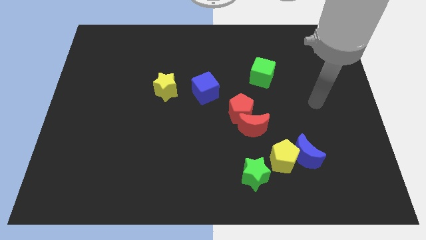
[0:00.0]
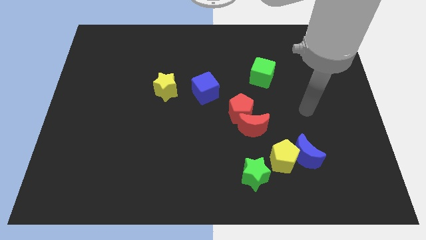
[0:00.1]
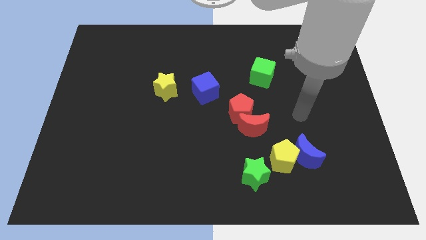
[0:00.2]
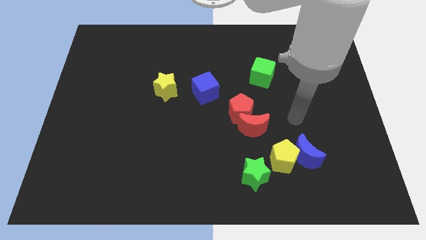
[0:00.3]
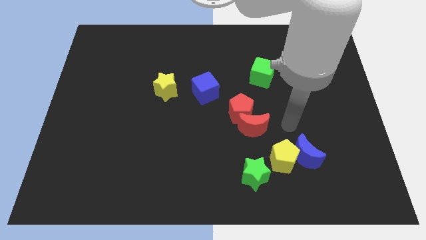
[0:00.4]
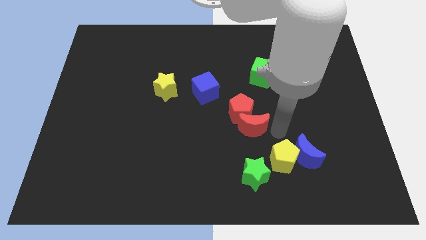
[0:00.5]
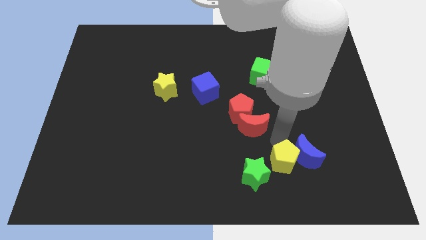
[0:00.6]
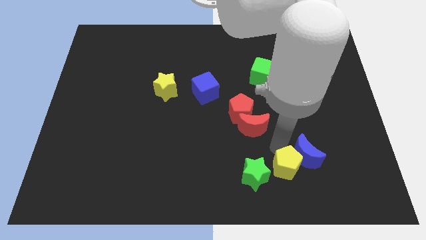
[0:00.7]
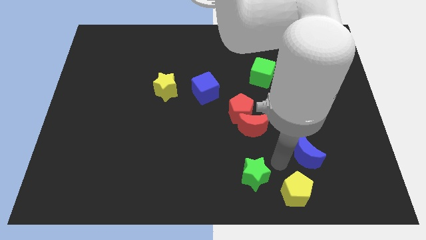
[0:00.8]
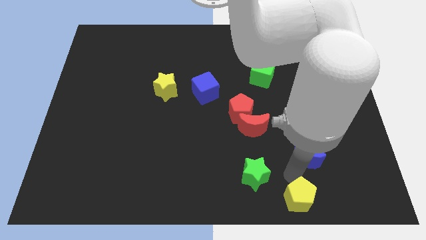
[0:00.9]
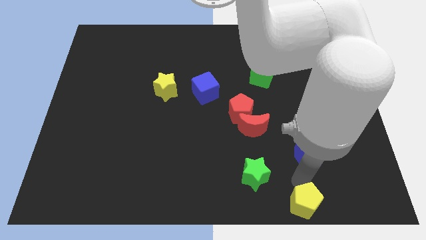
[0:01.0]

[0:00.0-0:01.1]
move the blue moon away from the yellow pentagon

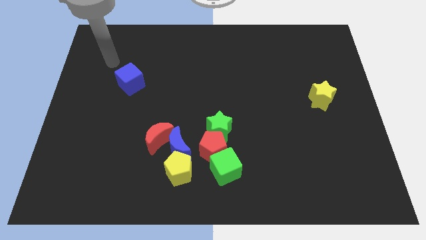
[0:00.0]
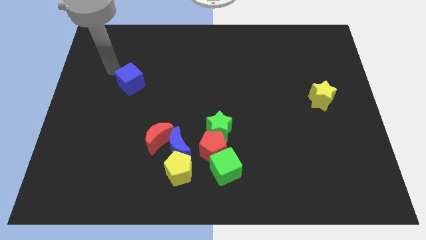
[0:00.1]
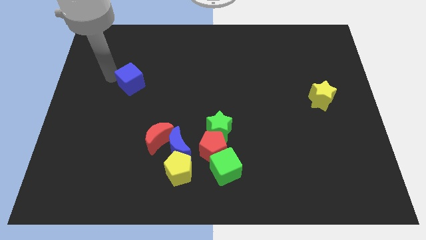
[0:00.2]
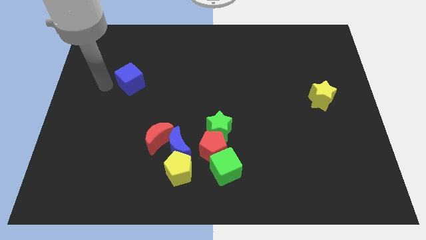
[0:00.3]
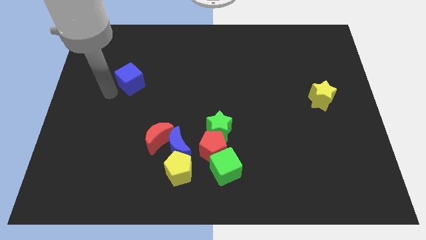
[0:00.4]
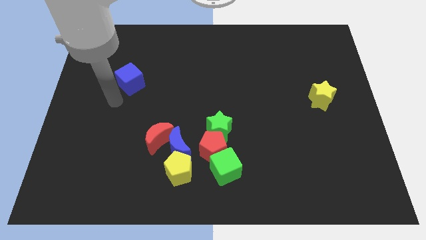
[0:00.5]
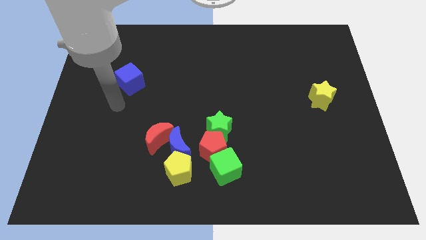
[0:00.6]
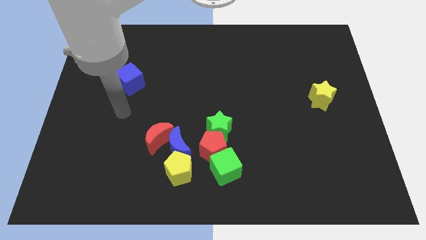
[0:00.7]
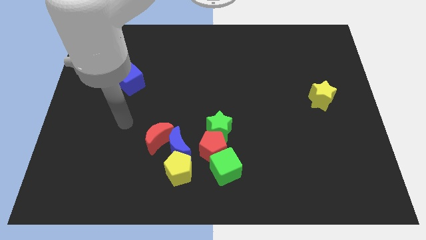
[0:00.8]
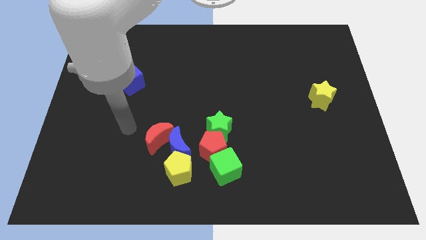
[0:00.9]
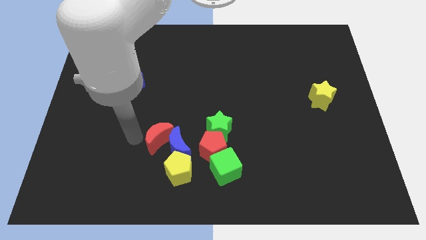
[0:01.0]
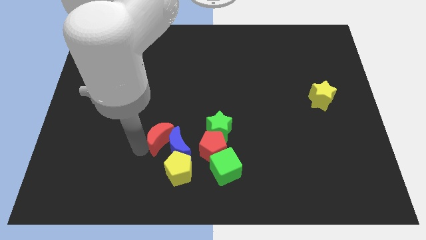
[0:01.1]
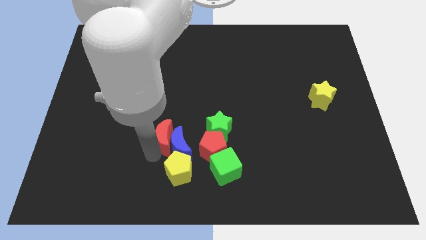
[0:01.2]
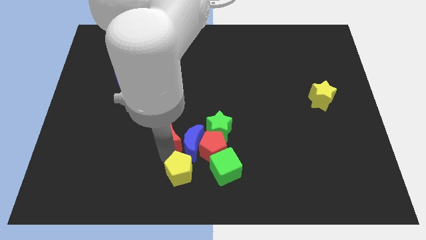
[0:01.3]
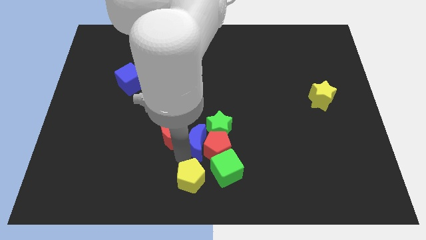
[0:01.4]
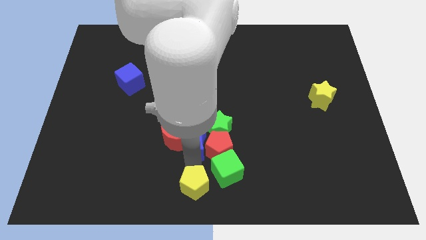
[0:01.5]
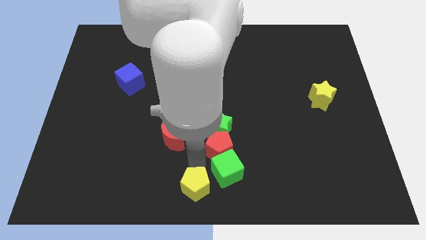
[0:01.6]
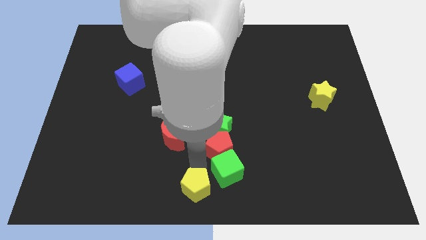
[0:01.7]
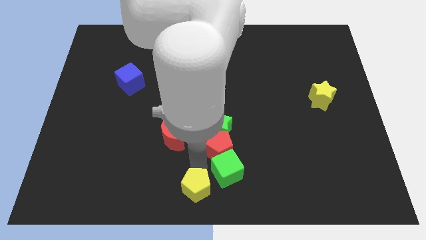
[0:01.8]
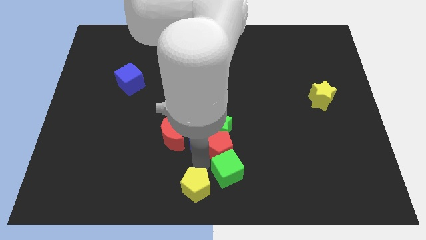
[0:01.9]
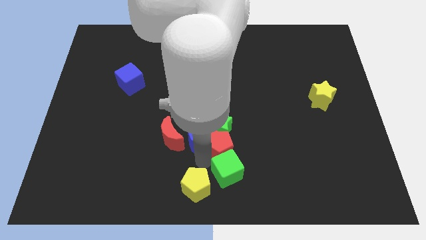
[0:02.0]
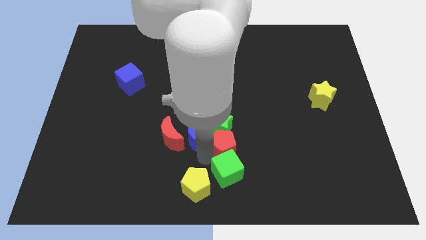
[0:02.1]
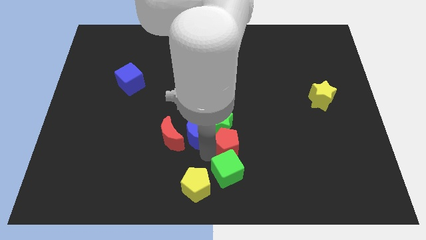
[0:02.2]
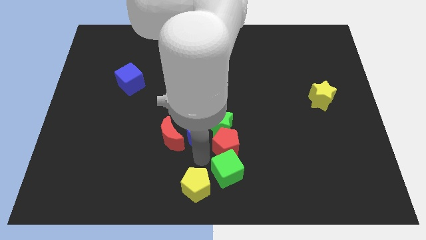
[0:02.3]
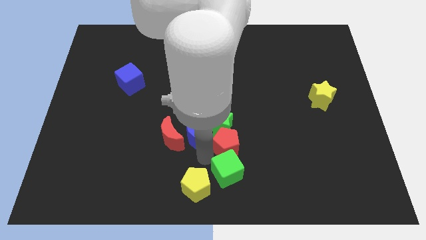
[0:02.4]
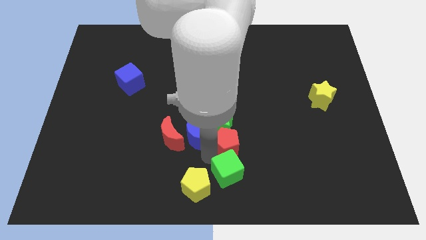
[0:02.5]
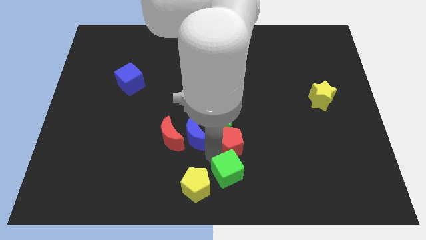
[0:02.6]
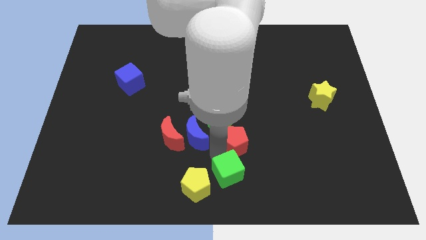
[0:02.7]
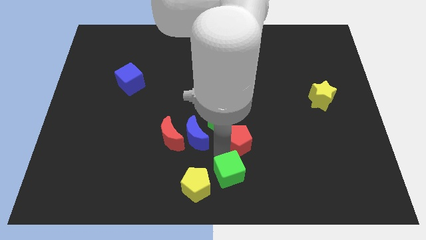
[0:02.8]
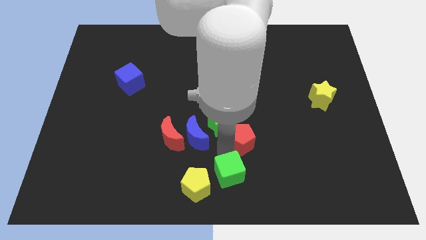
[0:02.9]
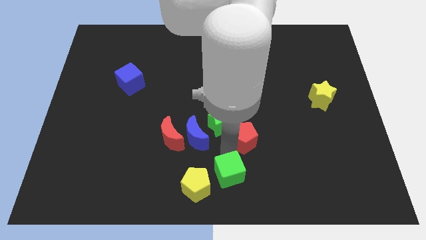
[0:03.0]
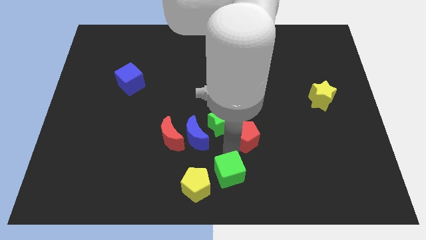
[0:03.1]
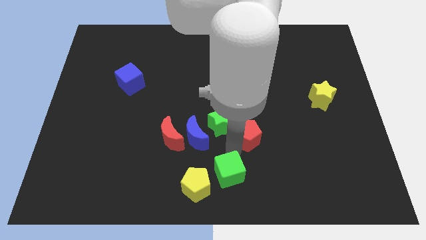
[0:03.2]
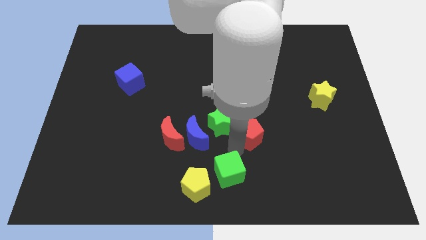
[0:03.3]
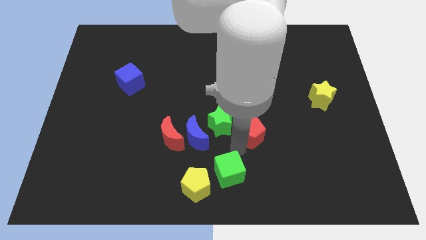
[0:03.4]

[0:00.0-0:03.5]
move the red pentagon away from the group of blocks

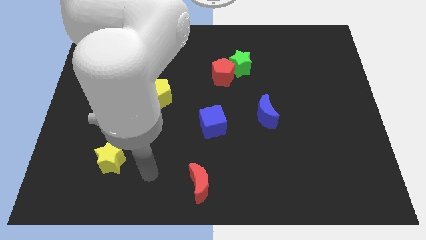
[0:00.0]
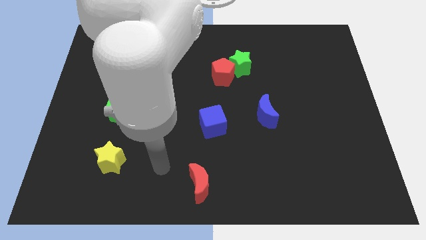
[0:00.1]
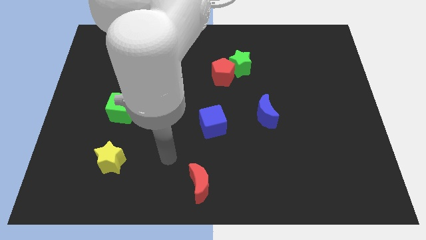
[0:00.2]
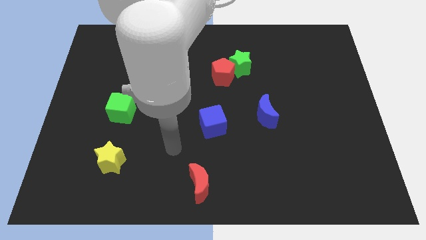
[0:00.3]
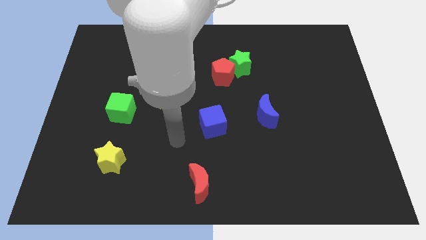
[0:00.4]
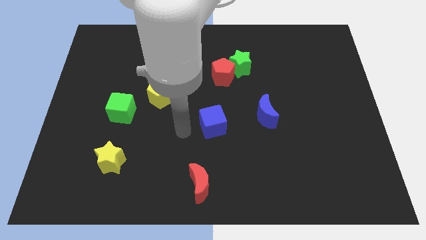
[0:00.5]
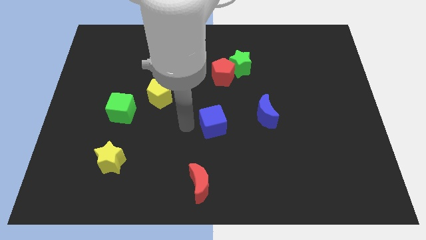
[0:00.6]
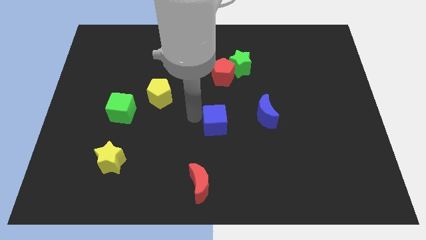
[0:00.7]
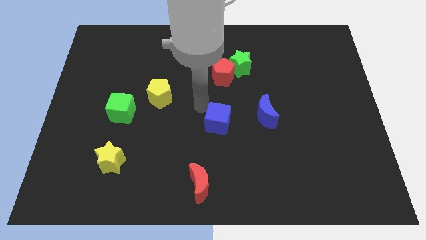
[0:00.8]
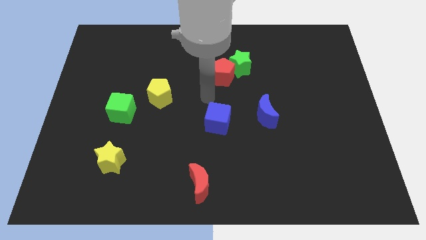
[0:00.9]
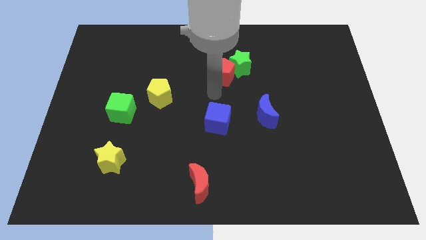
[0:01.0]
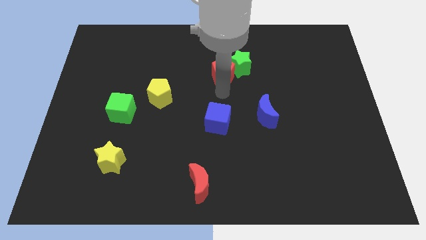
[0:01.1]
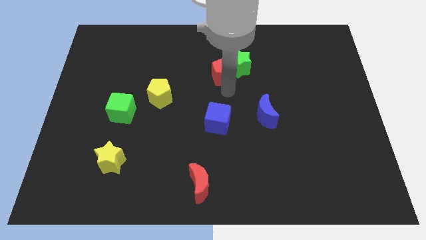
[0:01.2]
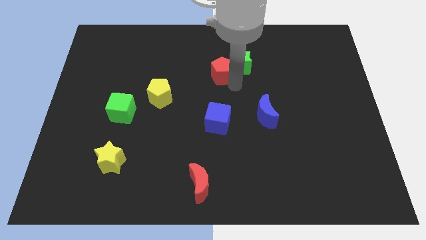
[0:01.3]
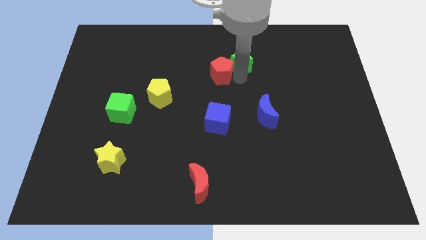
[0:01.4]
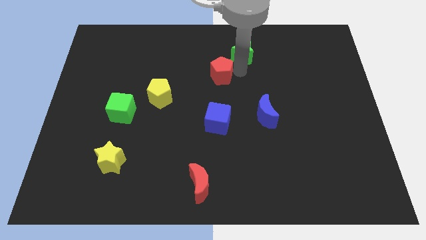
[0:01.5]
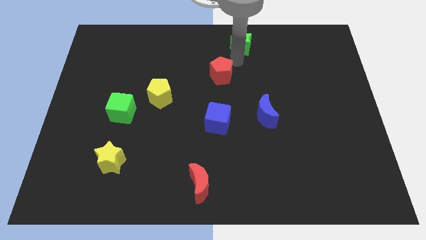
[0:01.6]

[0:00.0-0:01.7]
move the red pentagon away from the green star

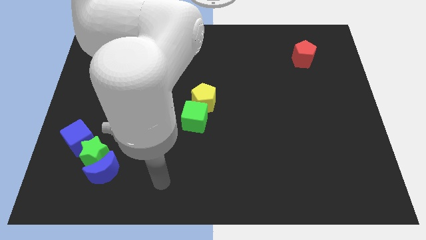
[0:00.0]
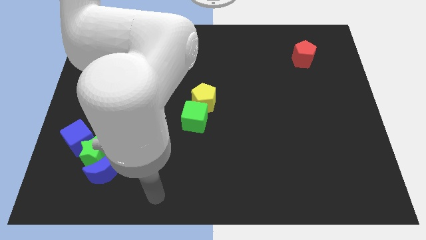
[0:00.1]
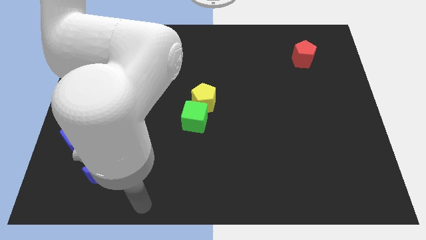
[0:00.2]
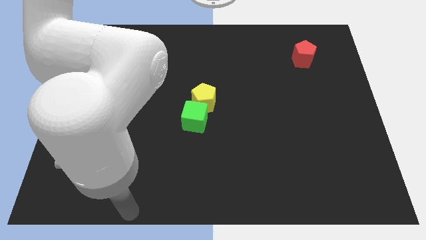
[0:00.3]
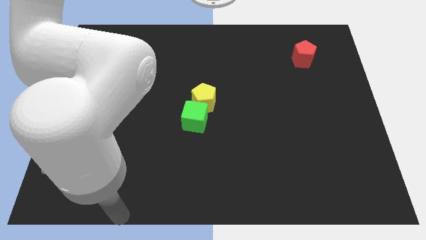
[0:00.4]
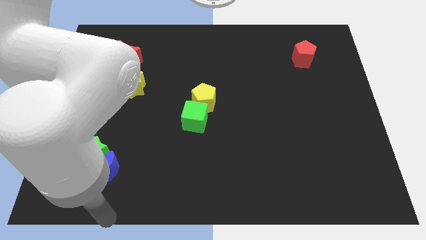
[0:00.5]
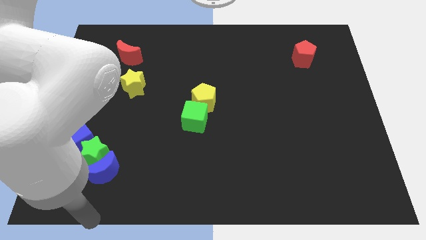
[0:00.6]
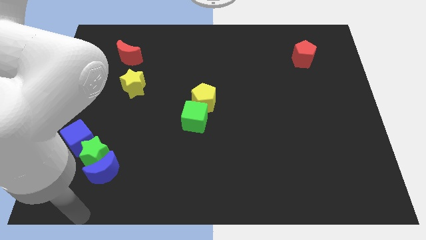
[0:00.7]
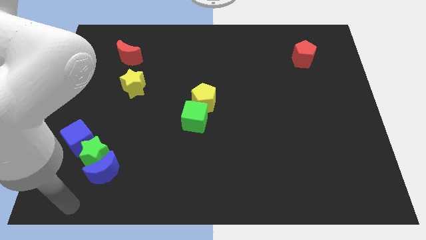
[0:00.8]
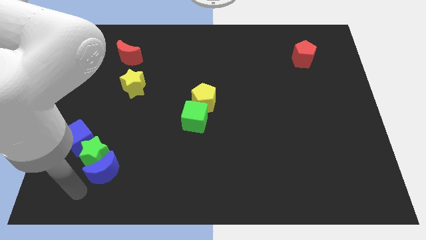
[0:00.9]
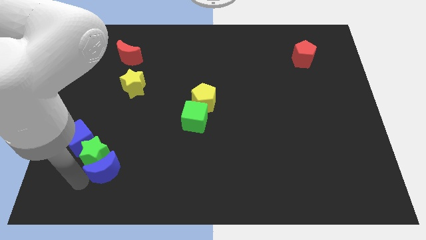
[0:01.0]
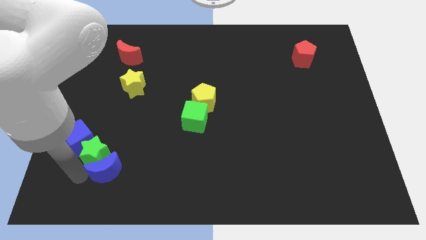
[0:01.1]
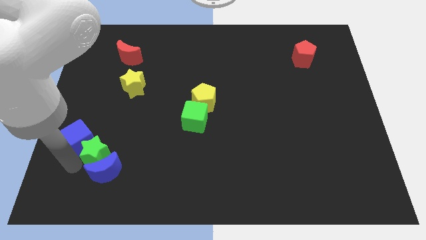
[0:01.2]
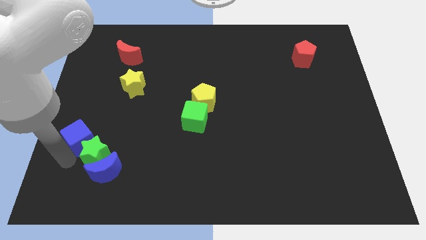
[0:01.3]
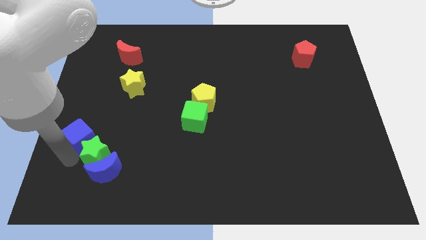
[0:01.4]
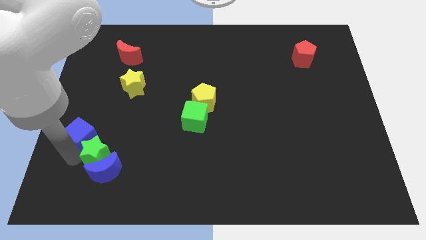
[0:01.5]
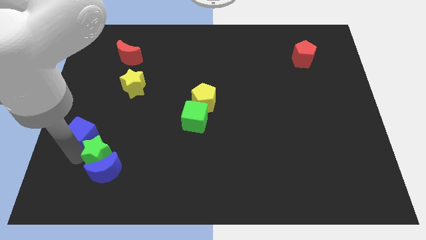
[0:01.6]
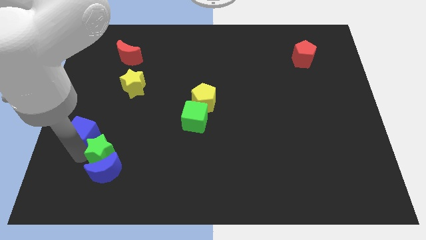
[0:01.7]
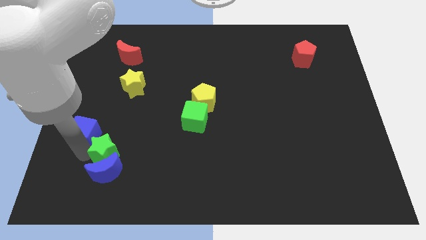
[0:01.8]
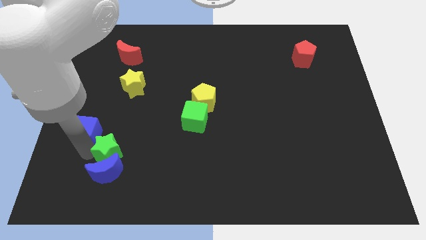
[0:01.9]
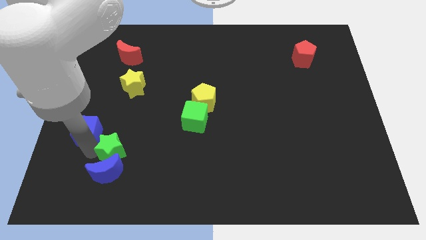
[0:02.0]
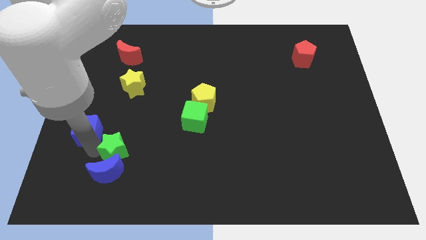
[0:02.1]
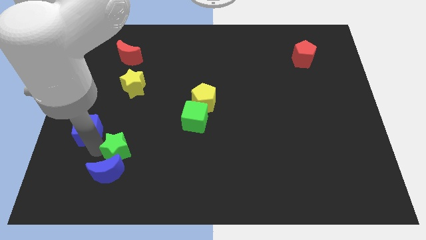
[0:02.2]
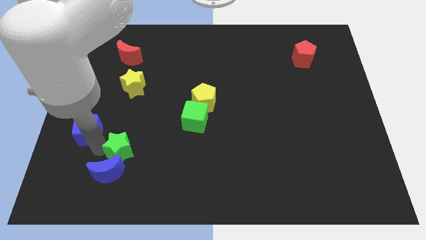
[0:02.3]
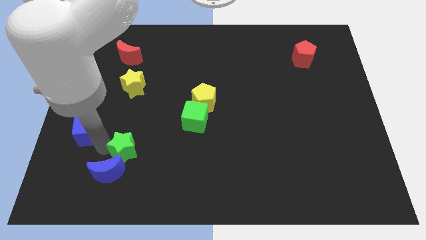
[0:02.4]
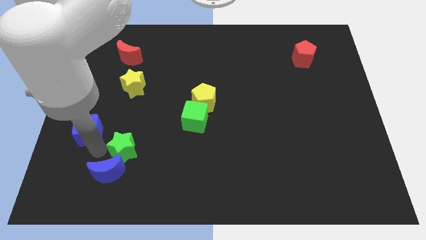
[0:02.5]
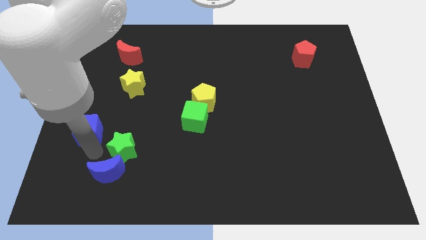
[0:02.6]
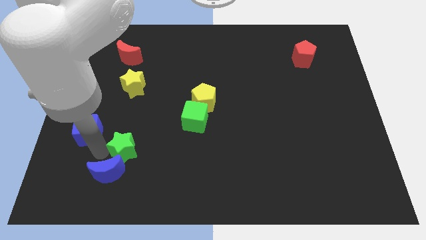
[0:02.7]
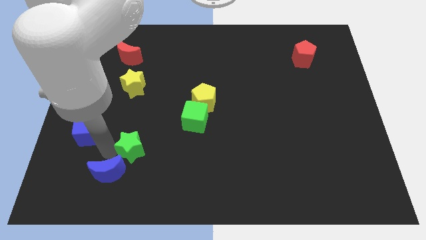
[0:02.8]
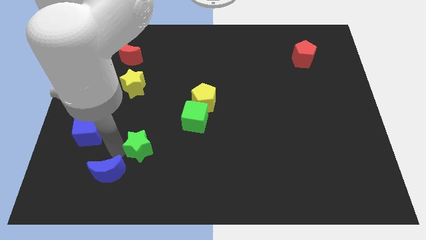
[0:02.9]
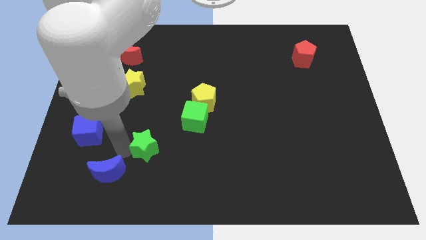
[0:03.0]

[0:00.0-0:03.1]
pull the green star apart from the blue moon and blue cube
